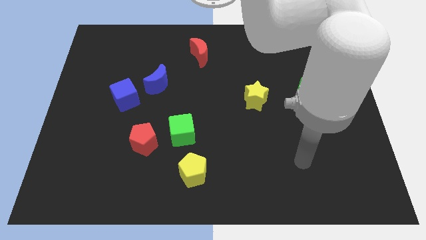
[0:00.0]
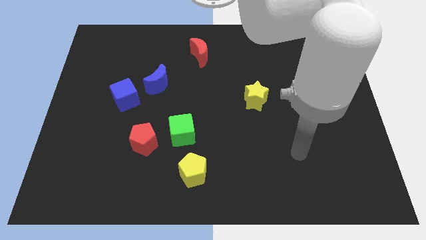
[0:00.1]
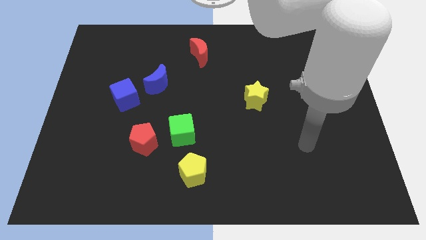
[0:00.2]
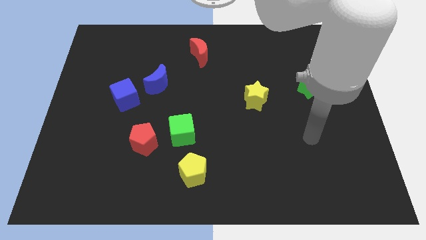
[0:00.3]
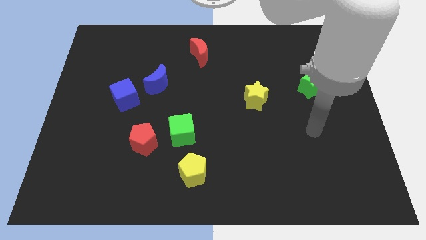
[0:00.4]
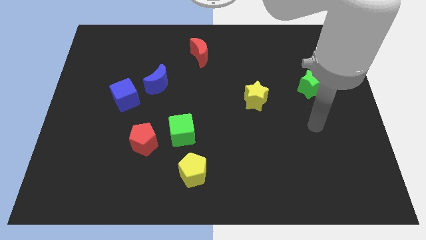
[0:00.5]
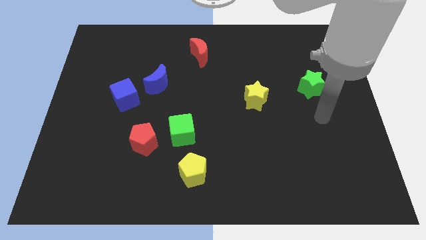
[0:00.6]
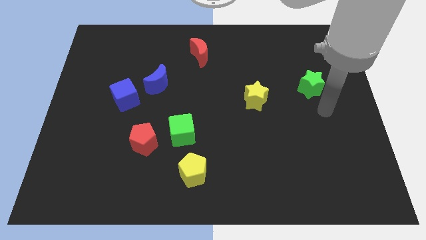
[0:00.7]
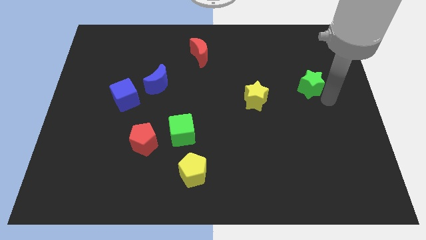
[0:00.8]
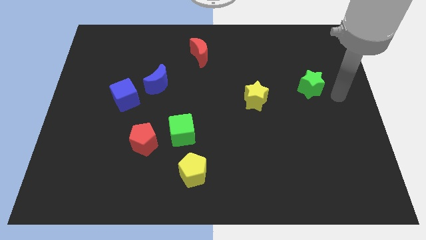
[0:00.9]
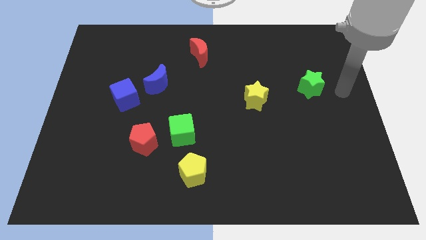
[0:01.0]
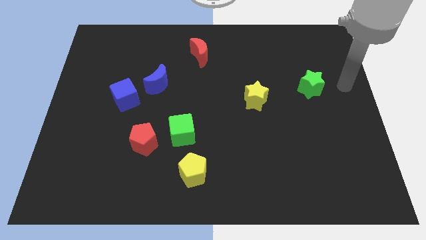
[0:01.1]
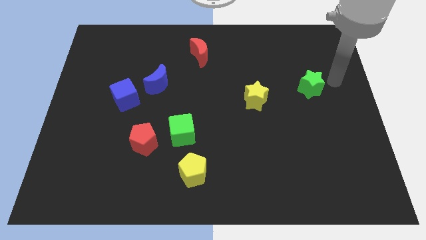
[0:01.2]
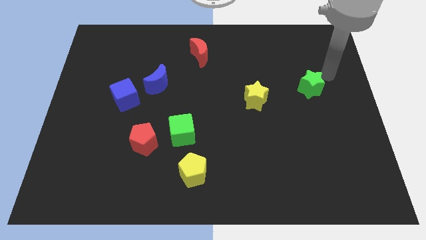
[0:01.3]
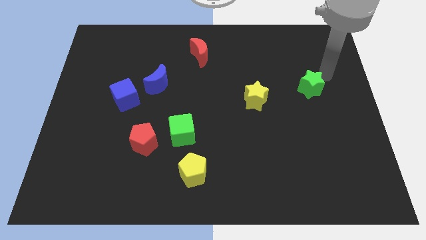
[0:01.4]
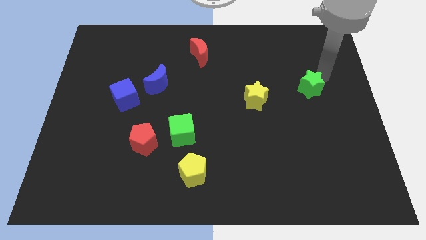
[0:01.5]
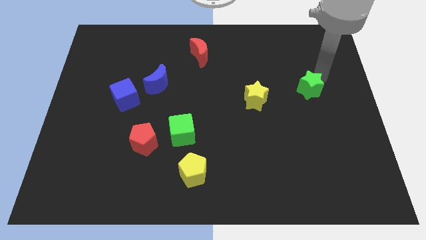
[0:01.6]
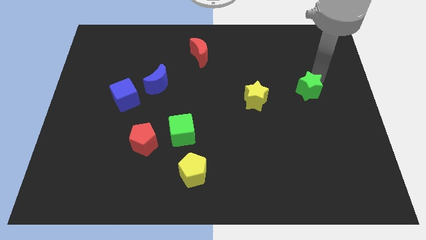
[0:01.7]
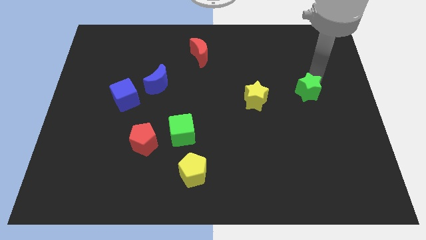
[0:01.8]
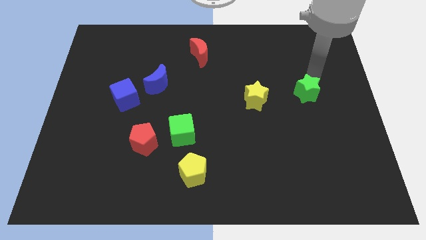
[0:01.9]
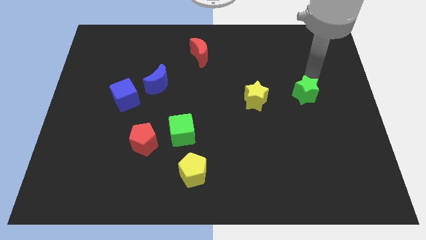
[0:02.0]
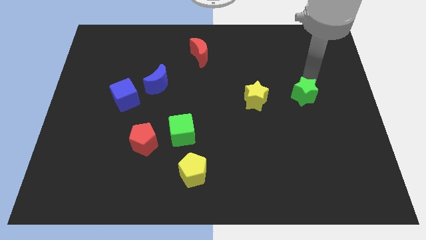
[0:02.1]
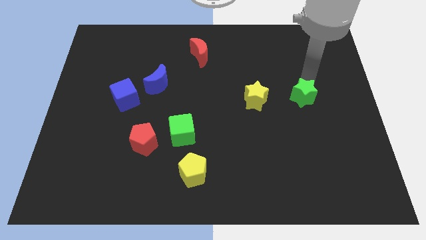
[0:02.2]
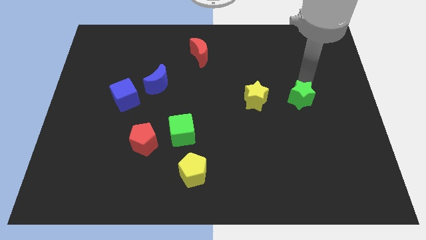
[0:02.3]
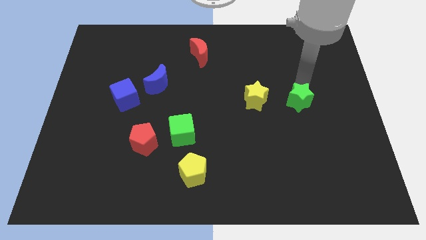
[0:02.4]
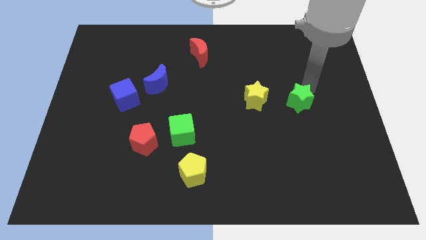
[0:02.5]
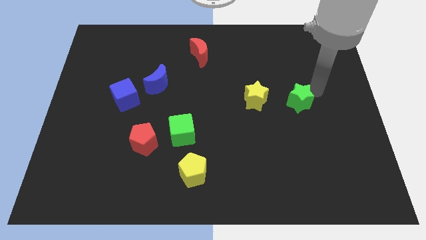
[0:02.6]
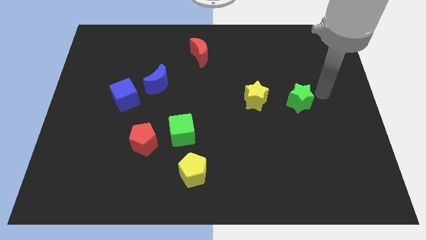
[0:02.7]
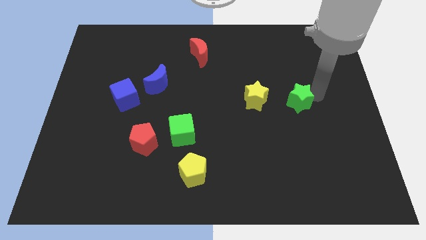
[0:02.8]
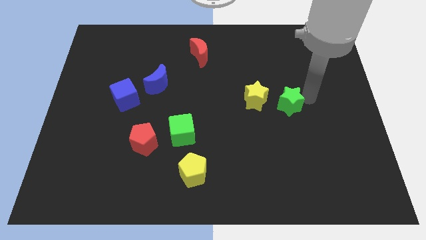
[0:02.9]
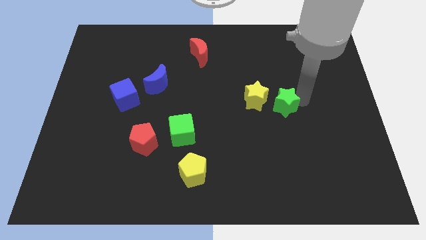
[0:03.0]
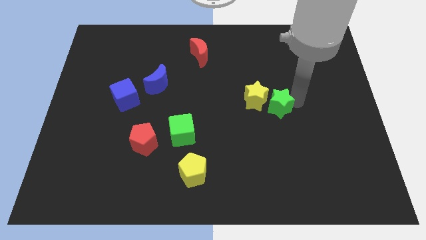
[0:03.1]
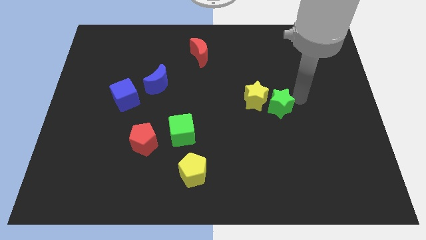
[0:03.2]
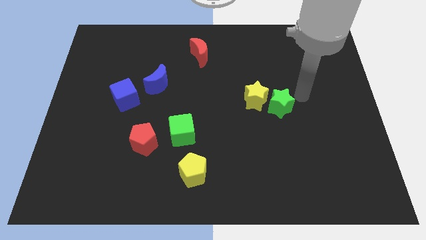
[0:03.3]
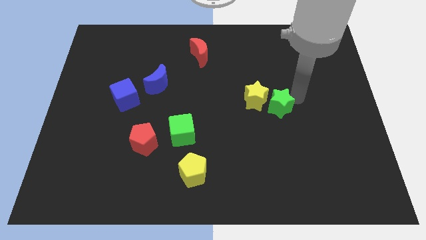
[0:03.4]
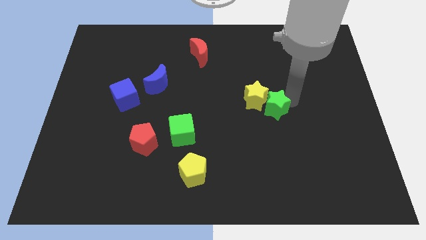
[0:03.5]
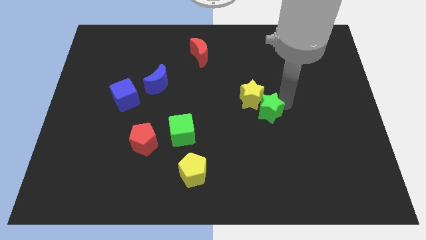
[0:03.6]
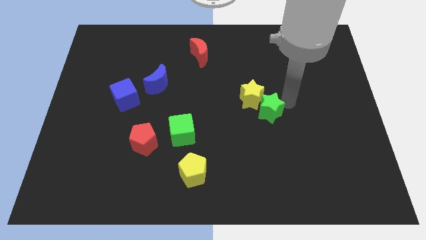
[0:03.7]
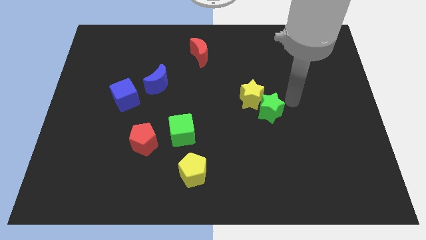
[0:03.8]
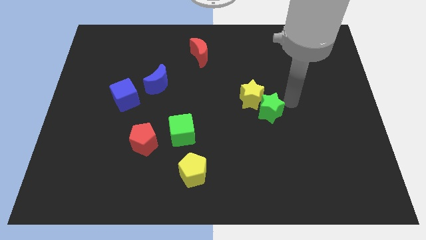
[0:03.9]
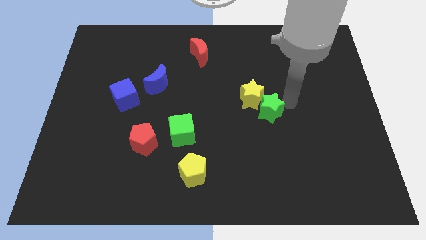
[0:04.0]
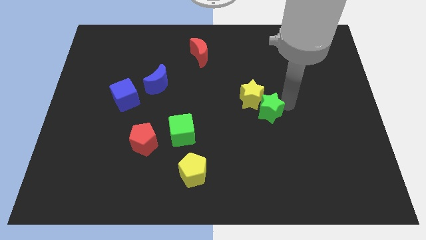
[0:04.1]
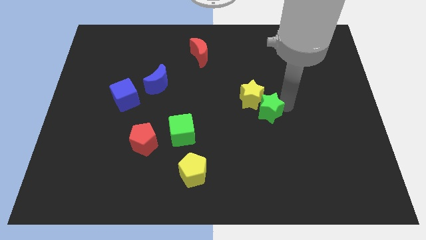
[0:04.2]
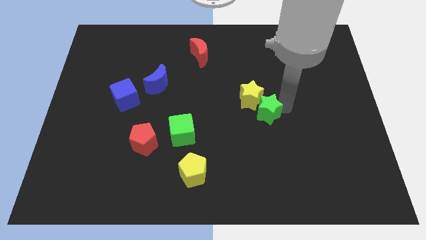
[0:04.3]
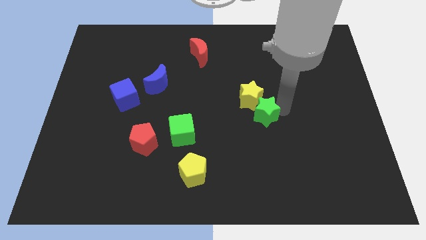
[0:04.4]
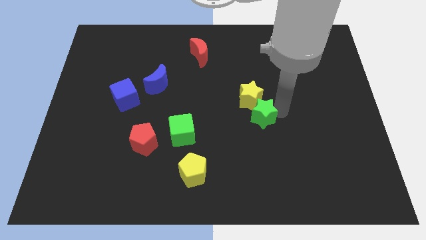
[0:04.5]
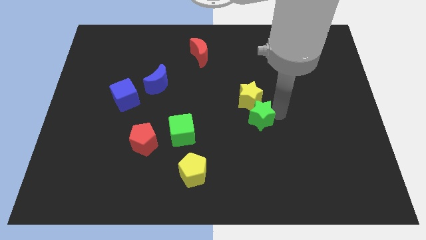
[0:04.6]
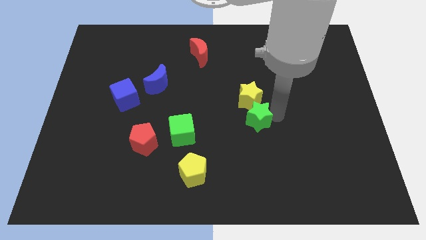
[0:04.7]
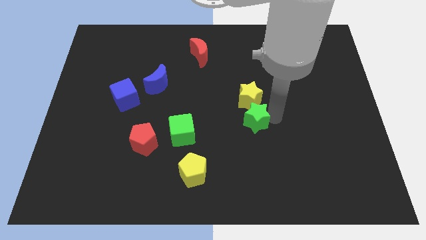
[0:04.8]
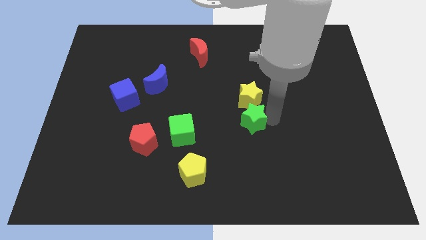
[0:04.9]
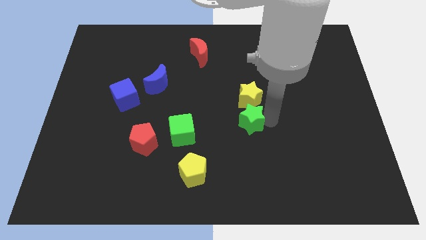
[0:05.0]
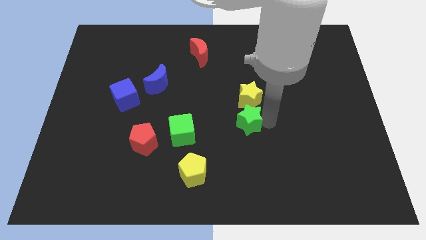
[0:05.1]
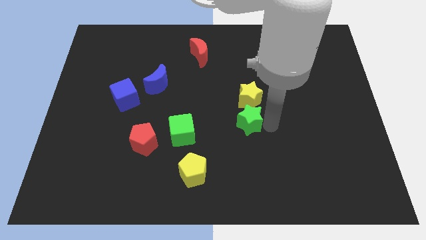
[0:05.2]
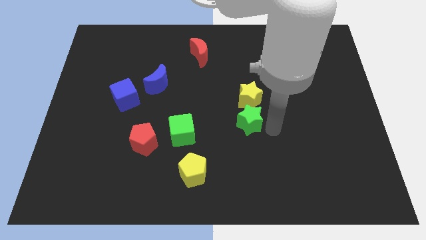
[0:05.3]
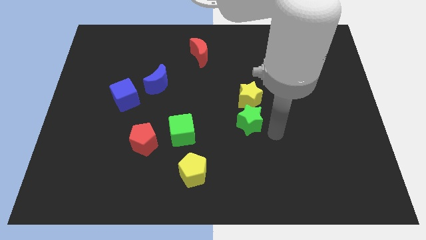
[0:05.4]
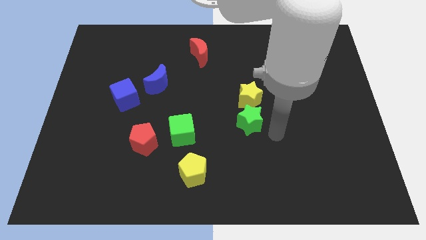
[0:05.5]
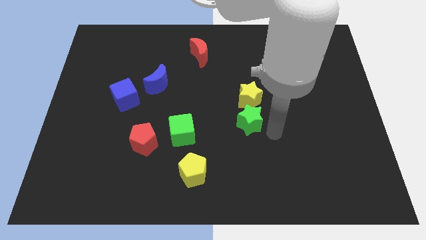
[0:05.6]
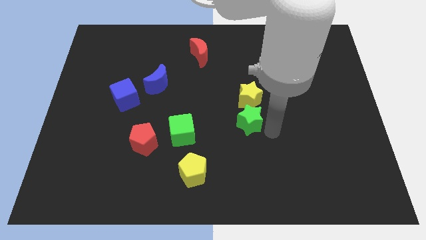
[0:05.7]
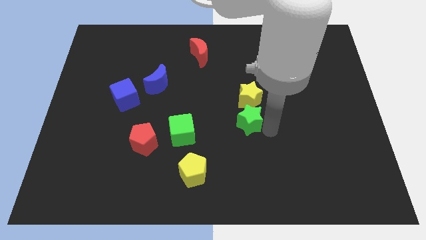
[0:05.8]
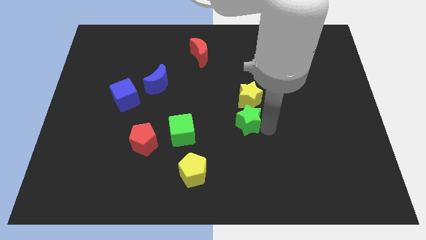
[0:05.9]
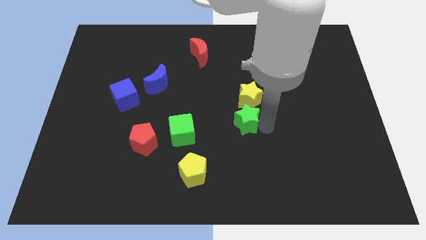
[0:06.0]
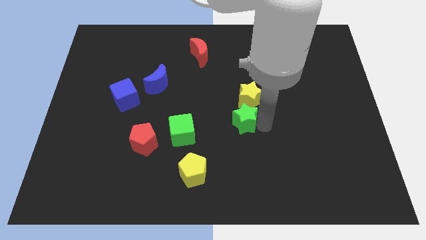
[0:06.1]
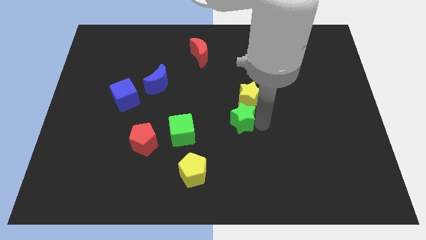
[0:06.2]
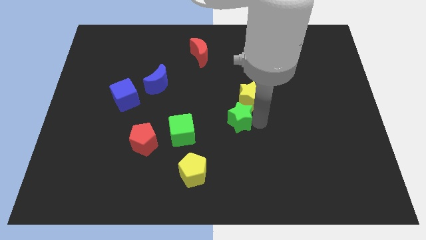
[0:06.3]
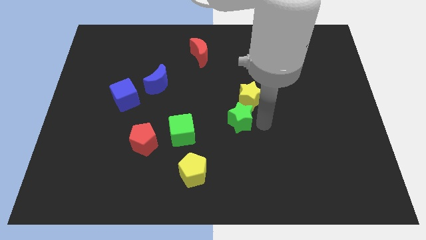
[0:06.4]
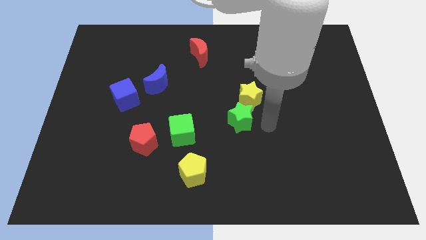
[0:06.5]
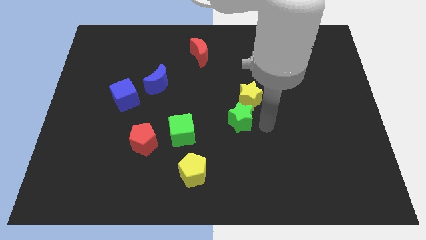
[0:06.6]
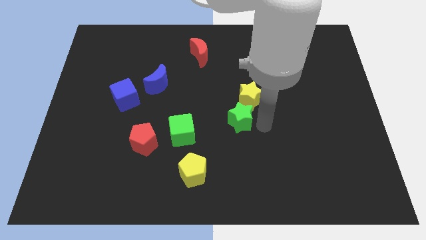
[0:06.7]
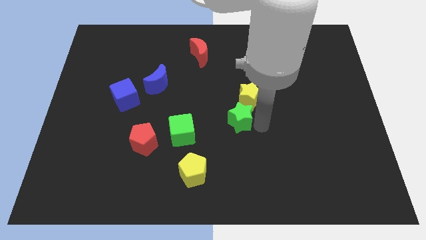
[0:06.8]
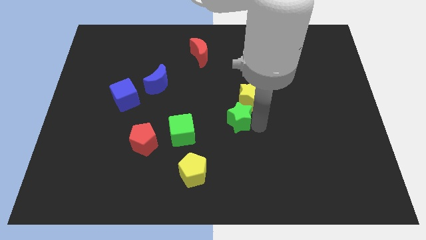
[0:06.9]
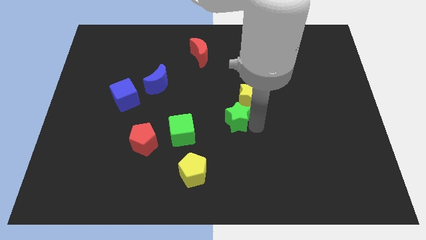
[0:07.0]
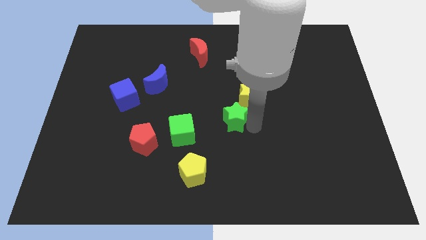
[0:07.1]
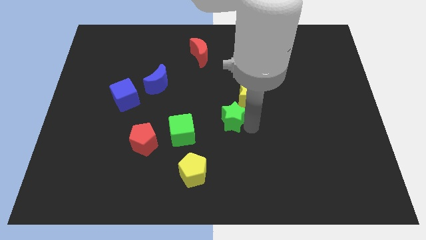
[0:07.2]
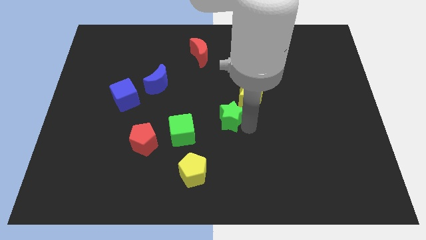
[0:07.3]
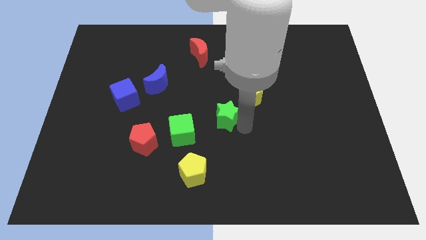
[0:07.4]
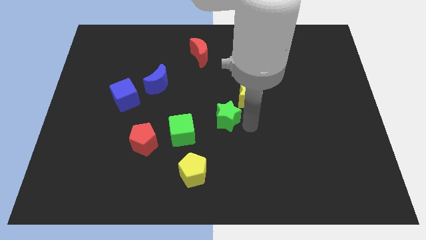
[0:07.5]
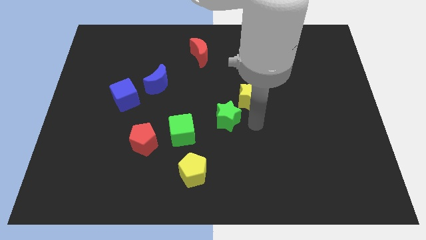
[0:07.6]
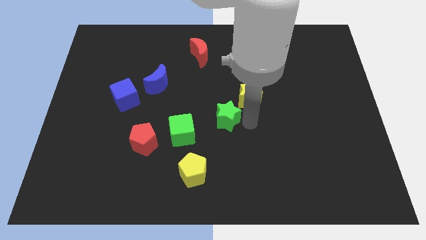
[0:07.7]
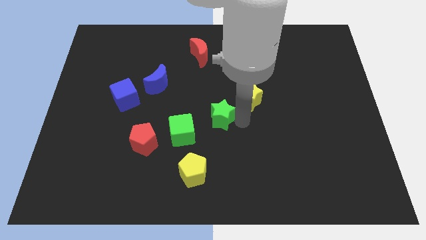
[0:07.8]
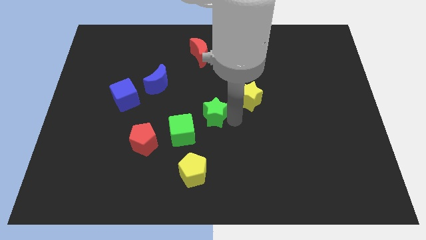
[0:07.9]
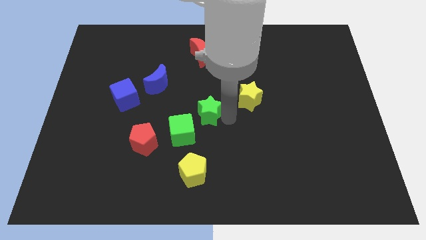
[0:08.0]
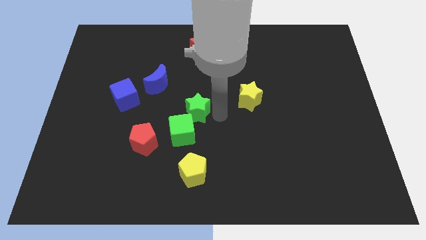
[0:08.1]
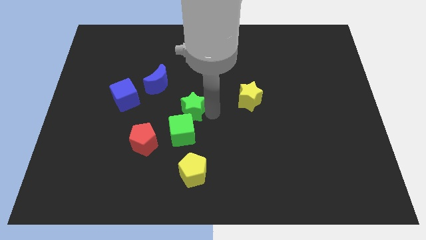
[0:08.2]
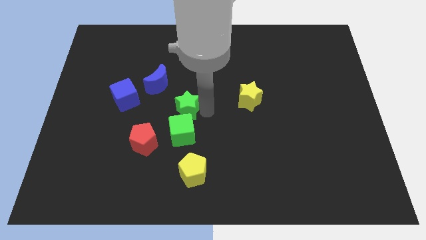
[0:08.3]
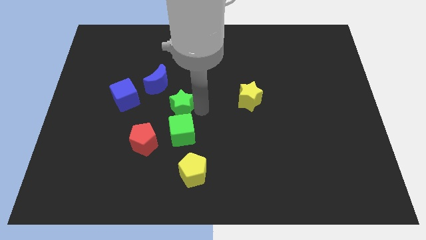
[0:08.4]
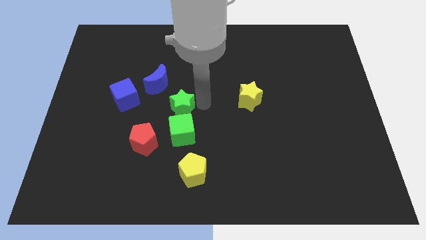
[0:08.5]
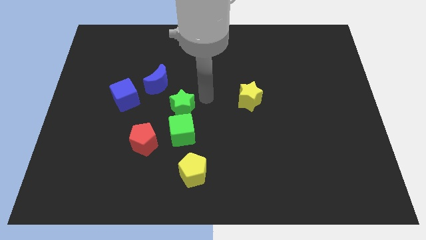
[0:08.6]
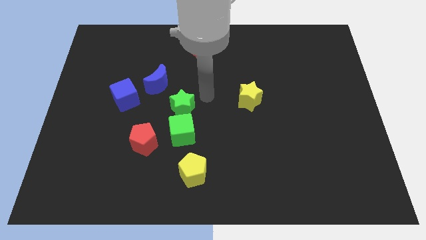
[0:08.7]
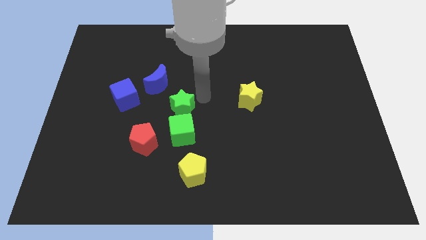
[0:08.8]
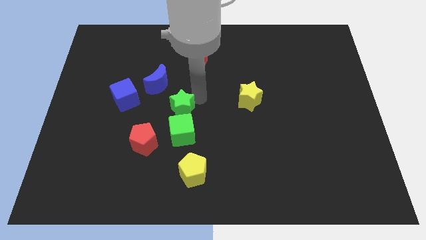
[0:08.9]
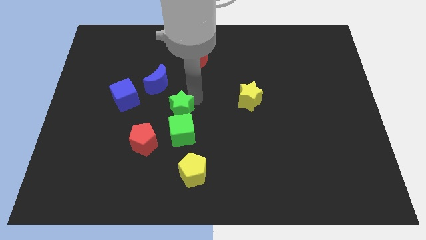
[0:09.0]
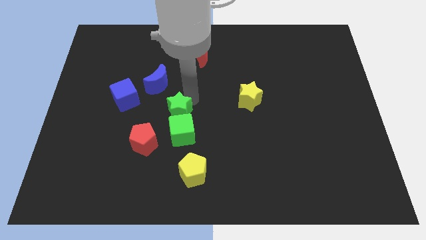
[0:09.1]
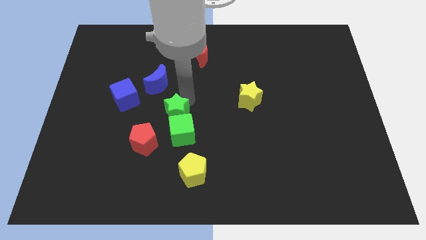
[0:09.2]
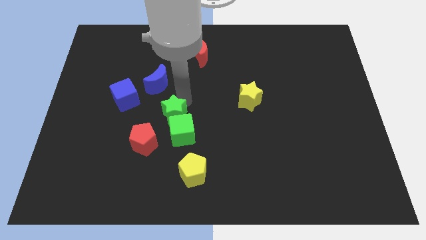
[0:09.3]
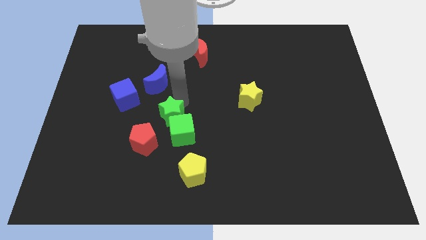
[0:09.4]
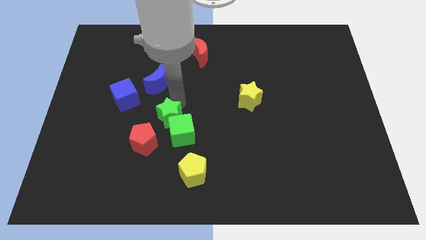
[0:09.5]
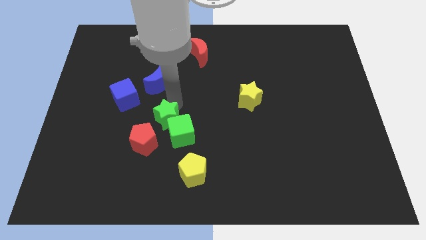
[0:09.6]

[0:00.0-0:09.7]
slide the green star to the left of the green cube
